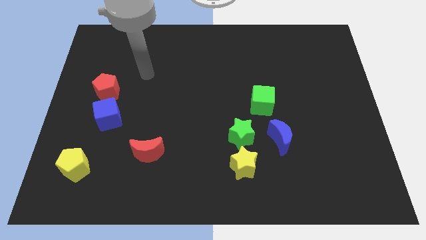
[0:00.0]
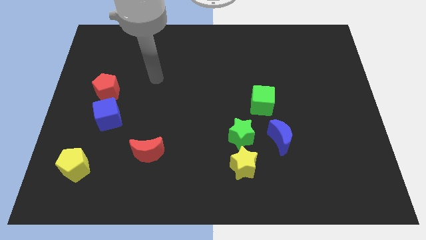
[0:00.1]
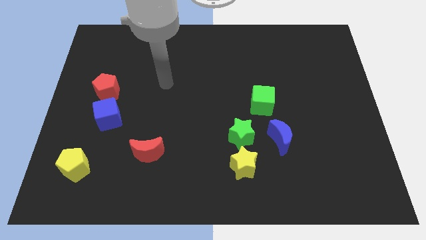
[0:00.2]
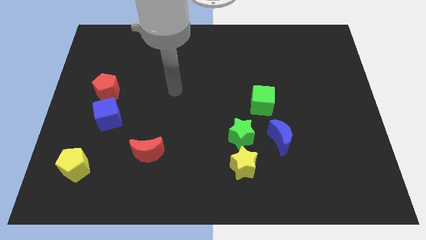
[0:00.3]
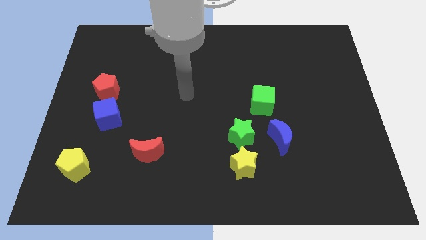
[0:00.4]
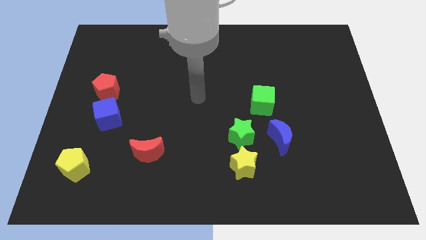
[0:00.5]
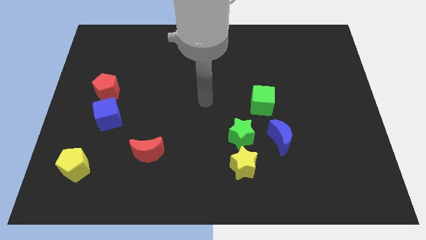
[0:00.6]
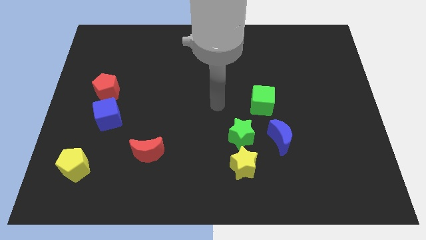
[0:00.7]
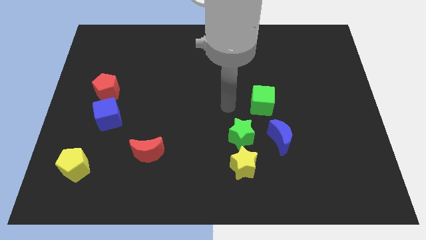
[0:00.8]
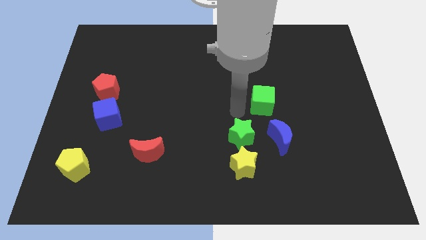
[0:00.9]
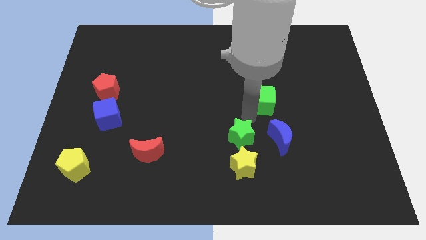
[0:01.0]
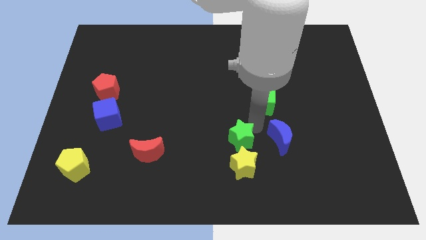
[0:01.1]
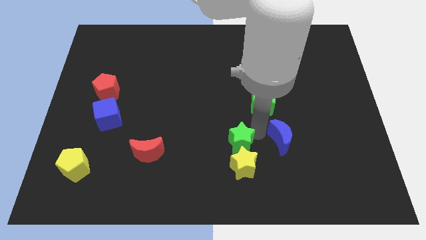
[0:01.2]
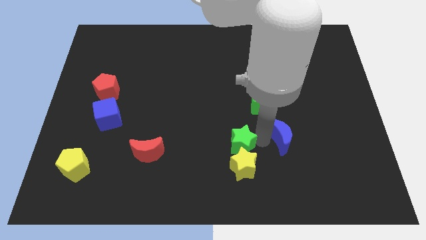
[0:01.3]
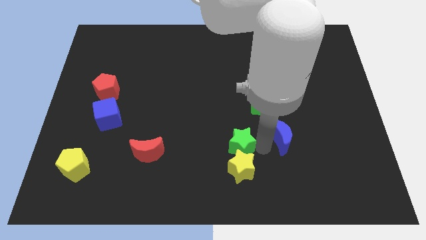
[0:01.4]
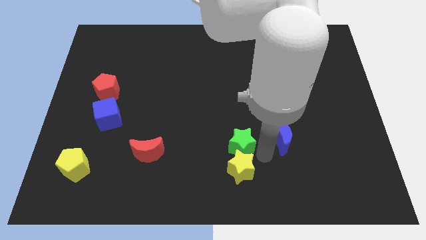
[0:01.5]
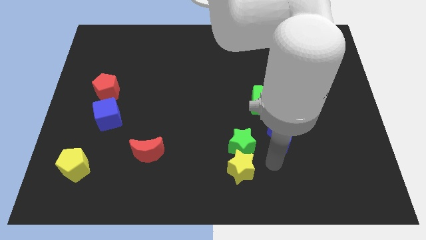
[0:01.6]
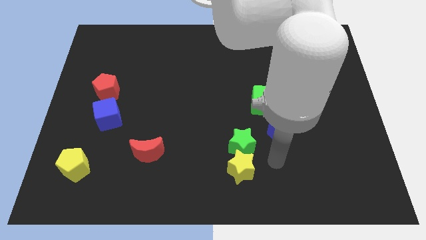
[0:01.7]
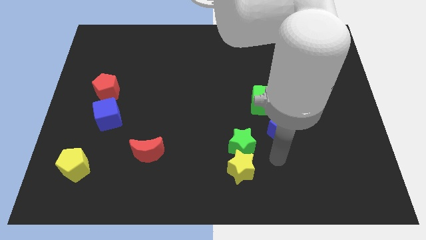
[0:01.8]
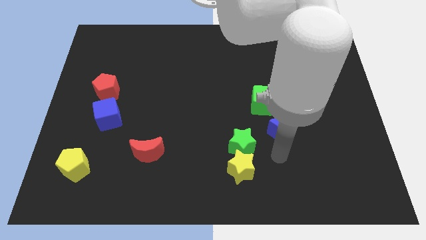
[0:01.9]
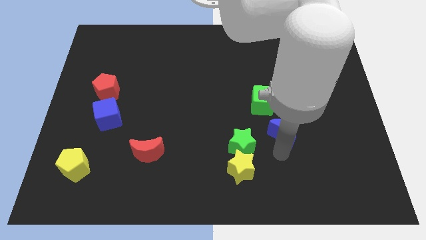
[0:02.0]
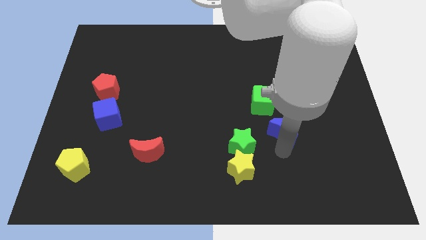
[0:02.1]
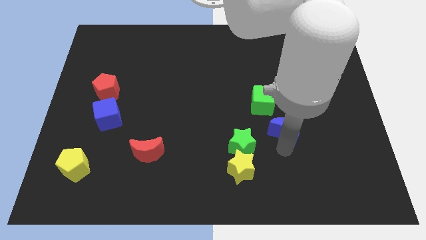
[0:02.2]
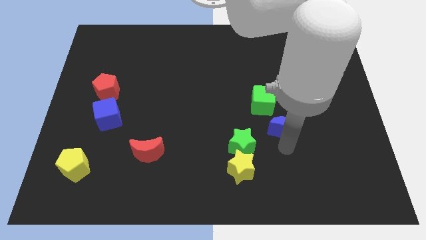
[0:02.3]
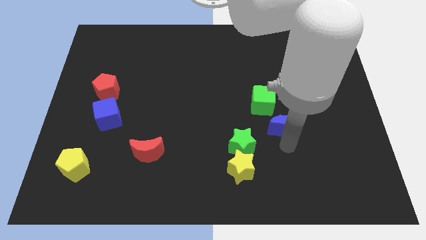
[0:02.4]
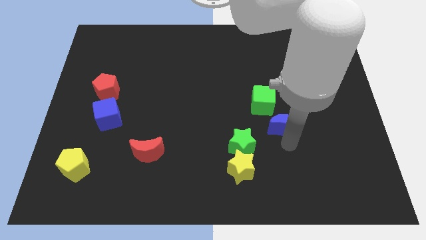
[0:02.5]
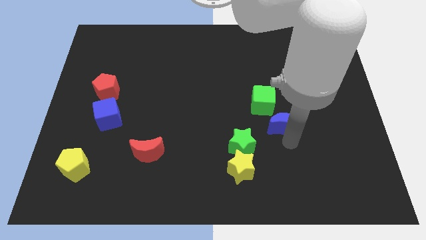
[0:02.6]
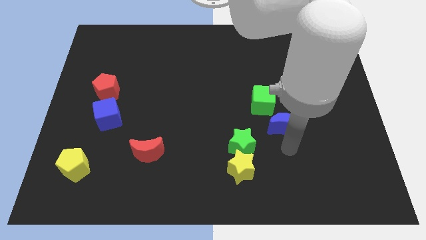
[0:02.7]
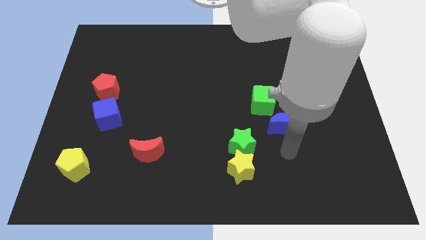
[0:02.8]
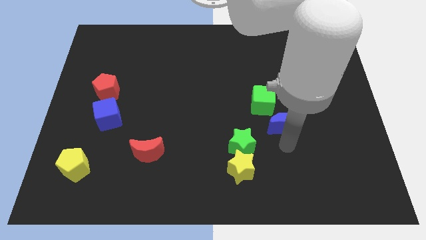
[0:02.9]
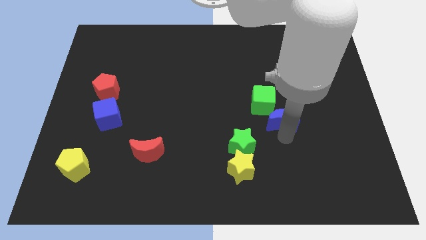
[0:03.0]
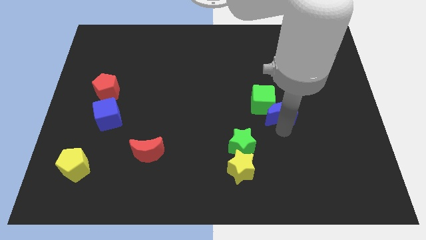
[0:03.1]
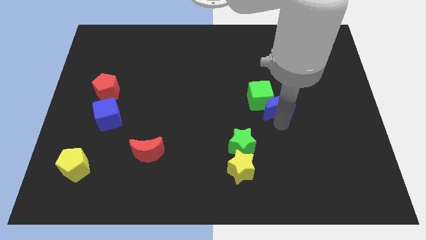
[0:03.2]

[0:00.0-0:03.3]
slightly move the blue moon upwards

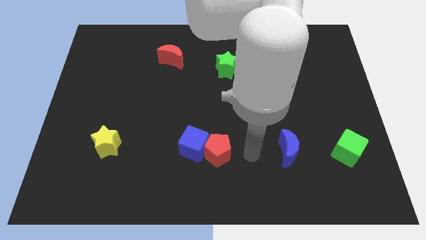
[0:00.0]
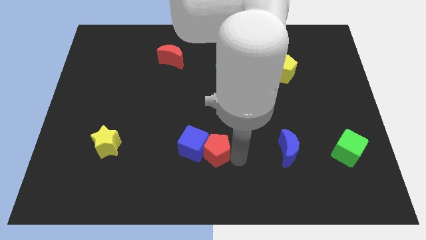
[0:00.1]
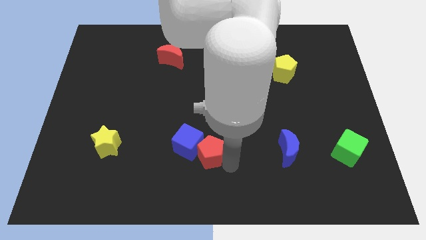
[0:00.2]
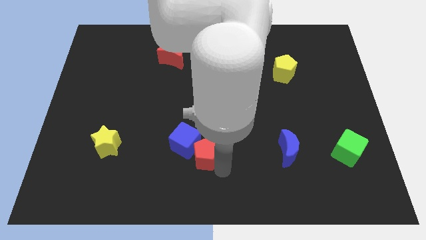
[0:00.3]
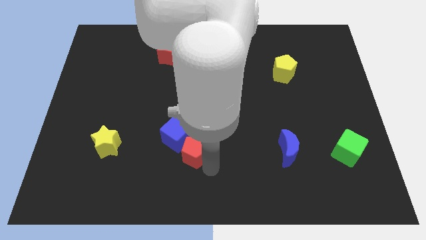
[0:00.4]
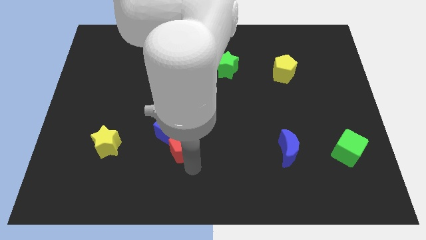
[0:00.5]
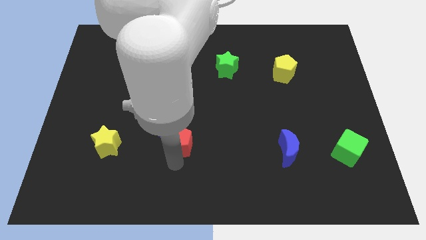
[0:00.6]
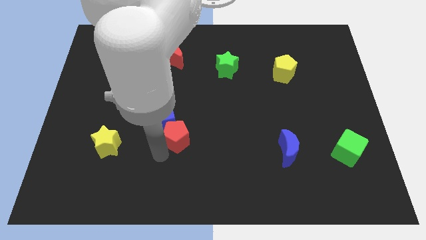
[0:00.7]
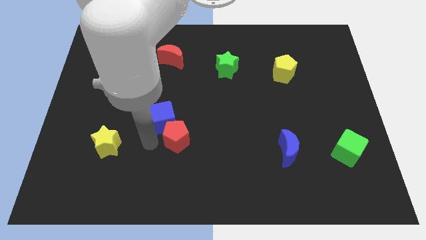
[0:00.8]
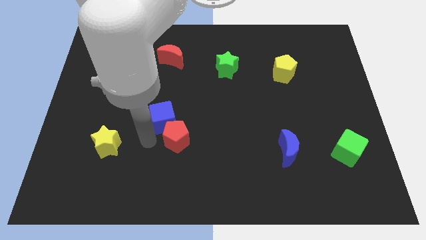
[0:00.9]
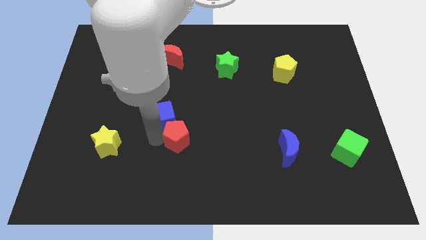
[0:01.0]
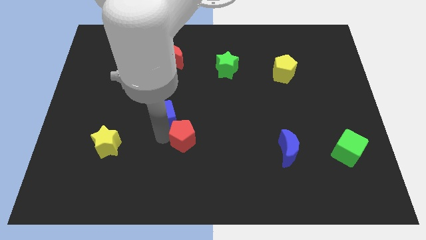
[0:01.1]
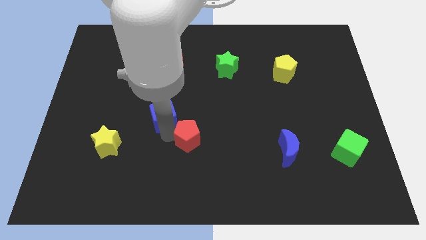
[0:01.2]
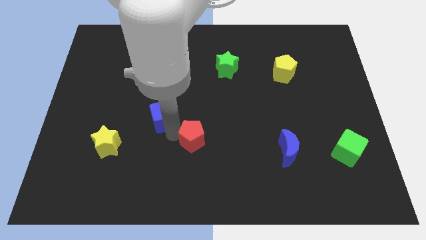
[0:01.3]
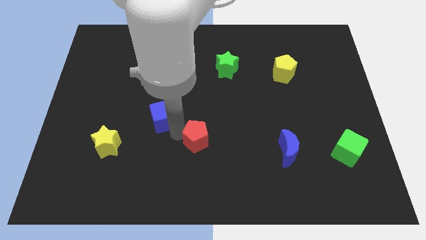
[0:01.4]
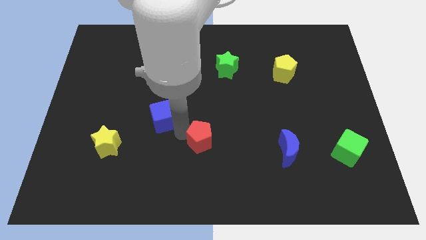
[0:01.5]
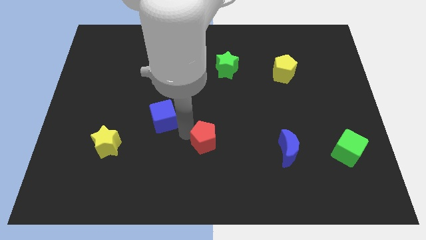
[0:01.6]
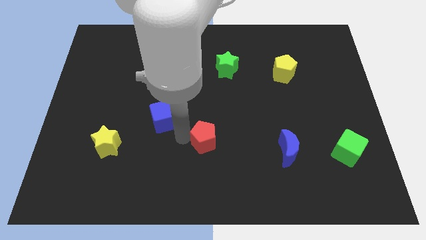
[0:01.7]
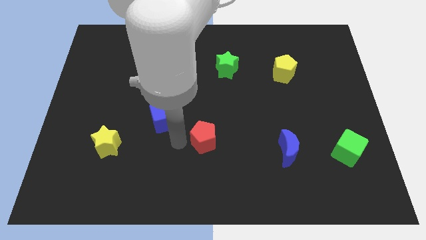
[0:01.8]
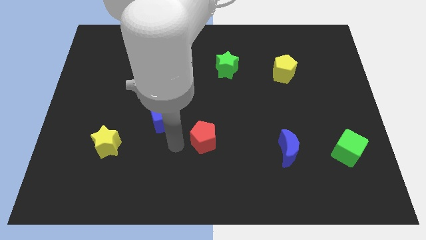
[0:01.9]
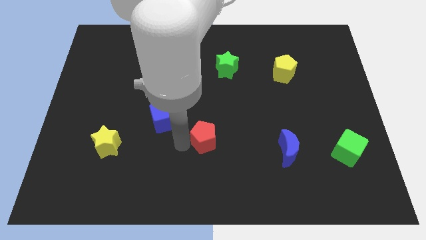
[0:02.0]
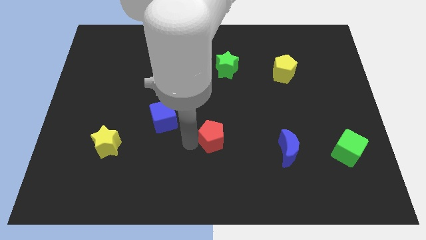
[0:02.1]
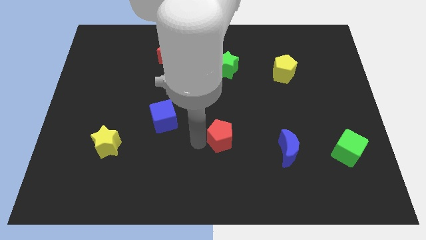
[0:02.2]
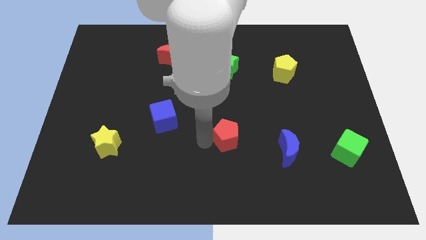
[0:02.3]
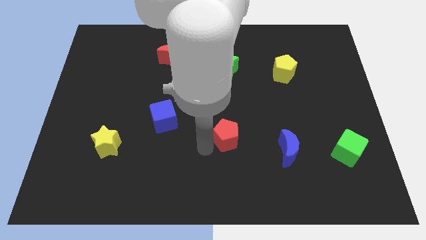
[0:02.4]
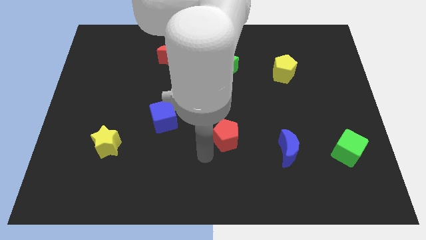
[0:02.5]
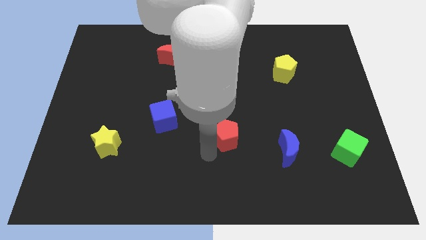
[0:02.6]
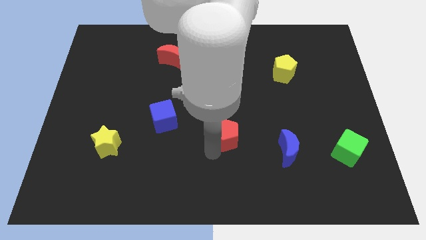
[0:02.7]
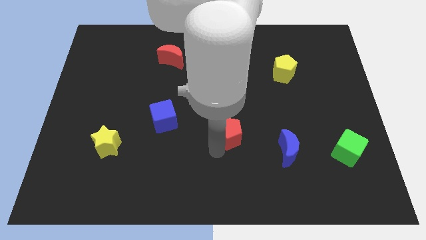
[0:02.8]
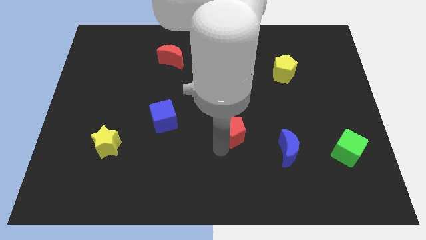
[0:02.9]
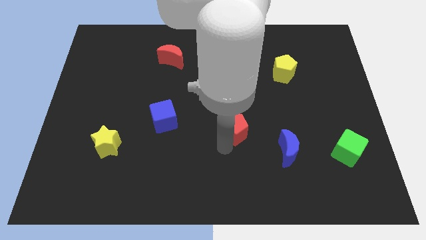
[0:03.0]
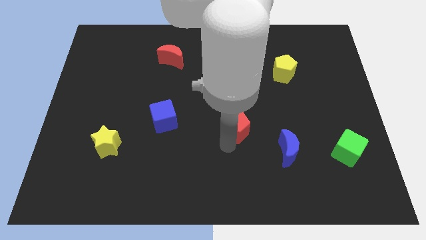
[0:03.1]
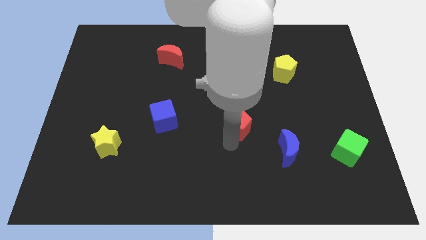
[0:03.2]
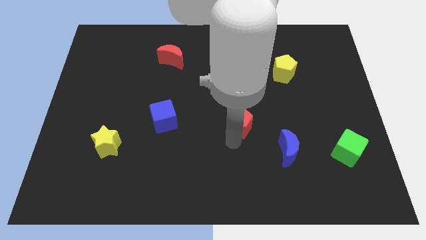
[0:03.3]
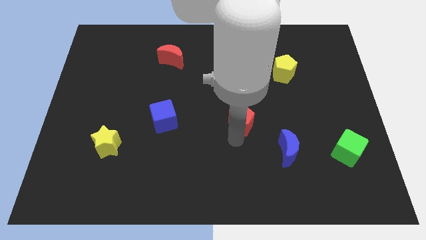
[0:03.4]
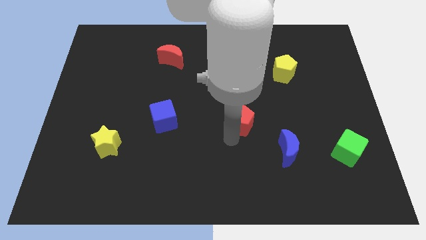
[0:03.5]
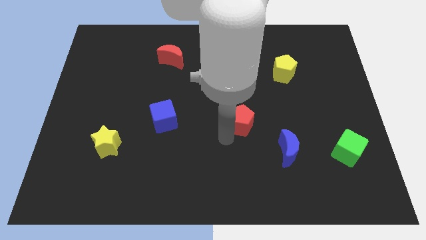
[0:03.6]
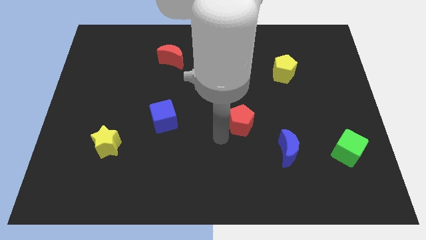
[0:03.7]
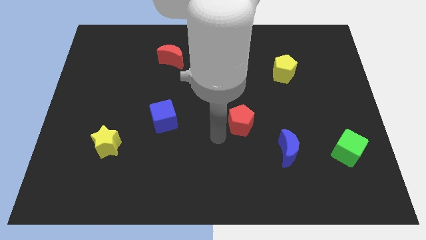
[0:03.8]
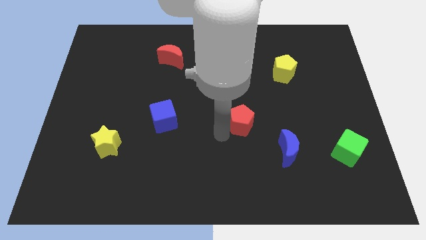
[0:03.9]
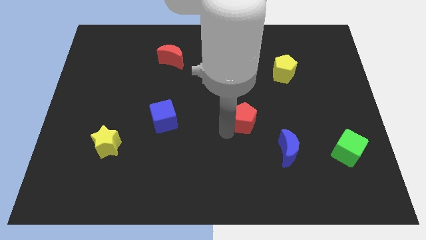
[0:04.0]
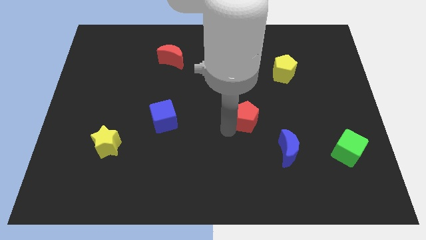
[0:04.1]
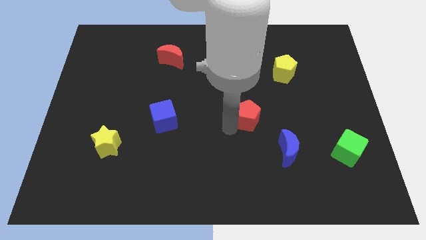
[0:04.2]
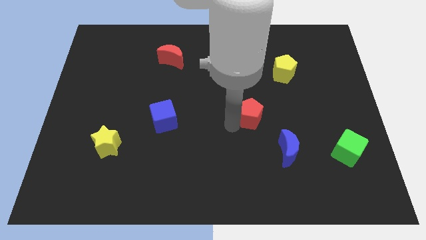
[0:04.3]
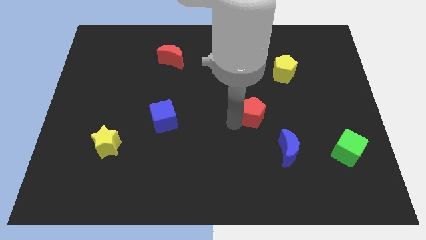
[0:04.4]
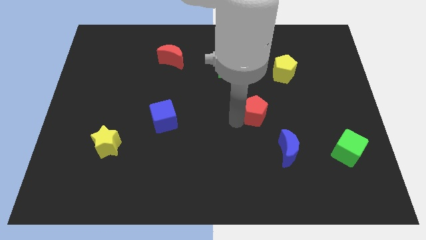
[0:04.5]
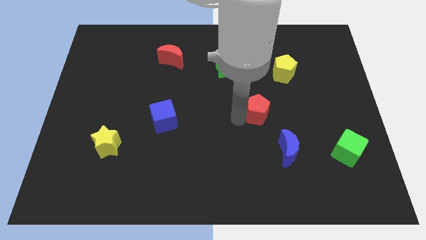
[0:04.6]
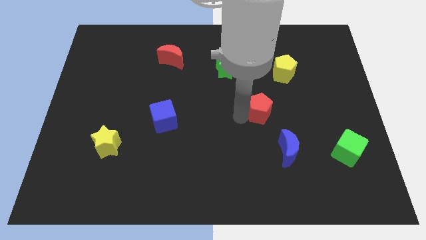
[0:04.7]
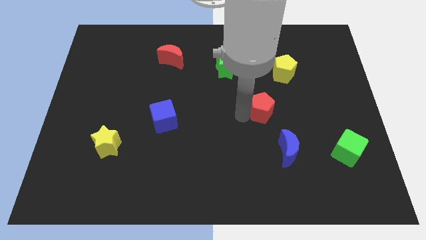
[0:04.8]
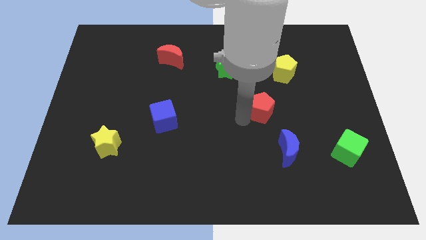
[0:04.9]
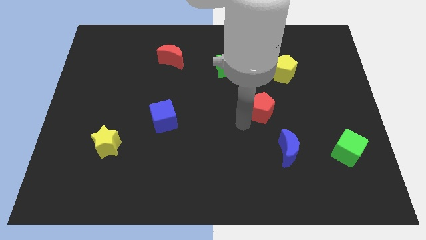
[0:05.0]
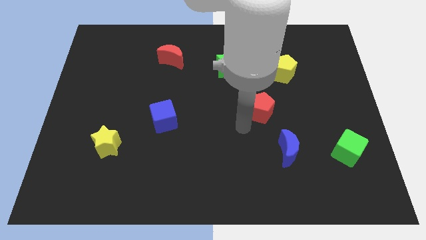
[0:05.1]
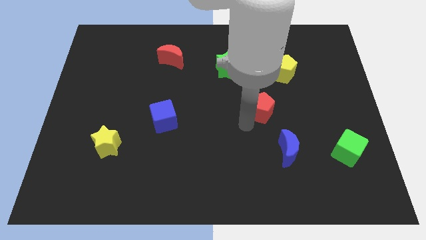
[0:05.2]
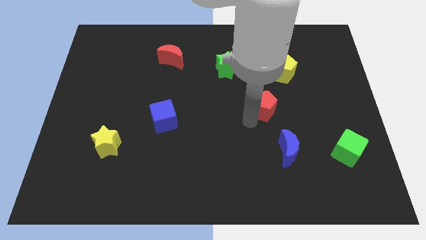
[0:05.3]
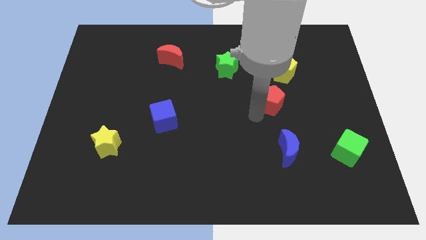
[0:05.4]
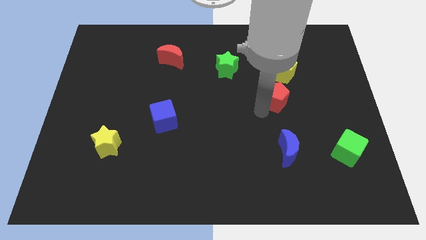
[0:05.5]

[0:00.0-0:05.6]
move the red pentagon upwards and right diagonally
